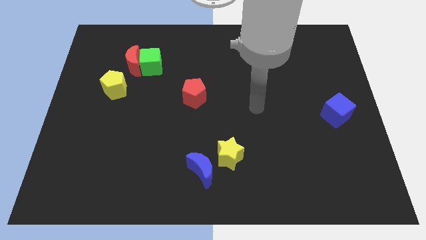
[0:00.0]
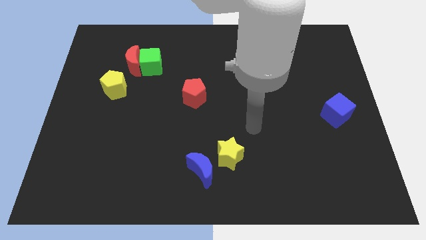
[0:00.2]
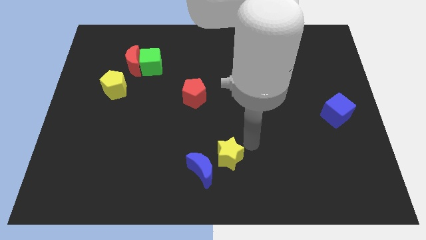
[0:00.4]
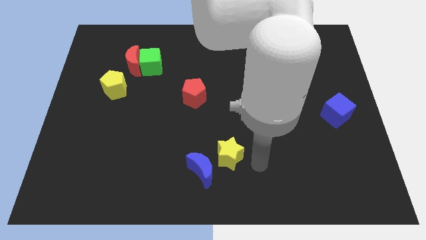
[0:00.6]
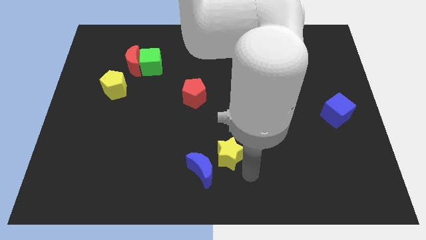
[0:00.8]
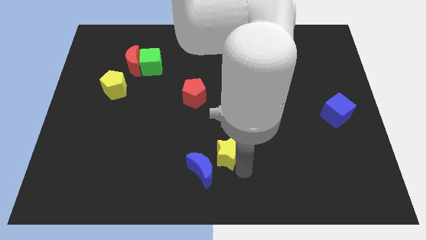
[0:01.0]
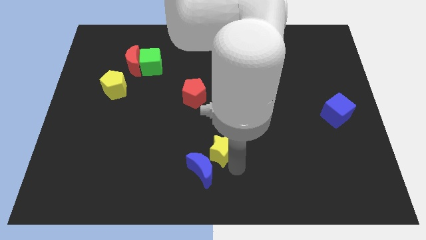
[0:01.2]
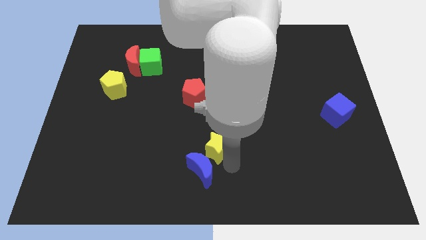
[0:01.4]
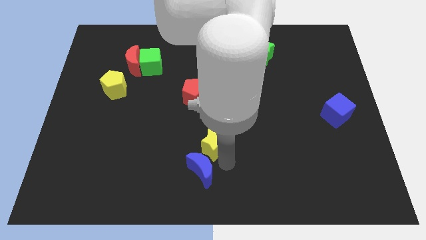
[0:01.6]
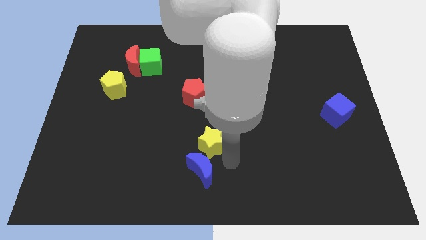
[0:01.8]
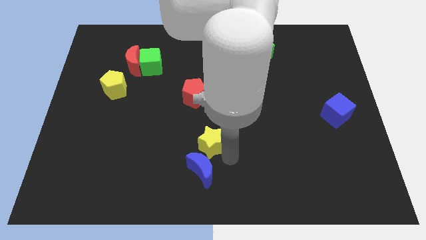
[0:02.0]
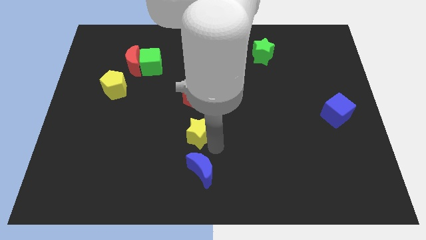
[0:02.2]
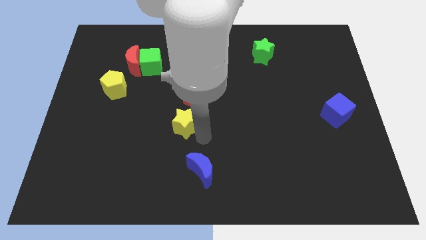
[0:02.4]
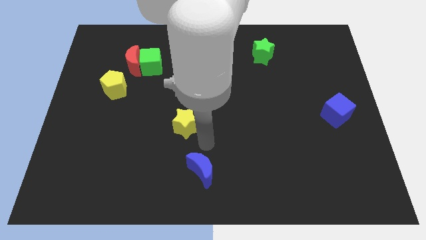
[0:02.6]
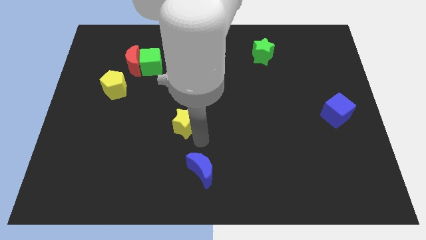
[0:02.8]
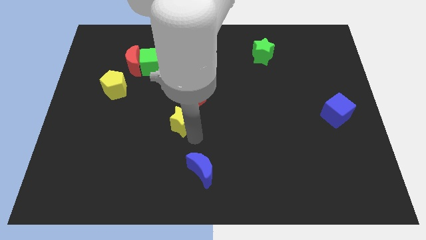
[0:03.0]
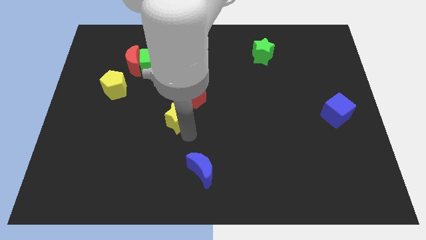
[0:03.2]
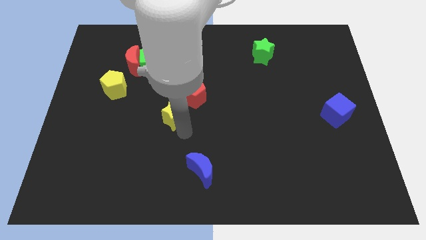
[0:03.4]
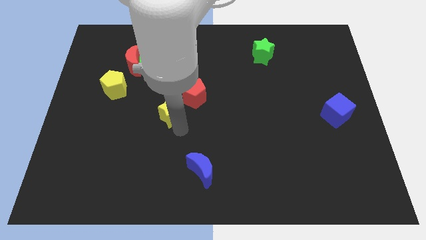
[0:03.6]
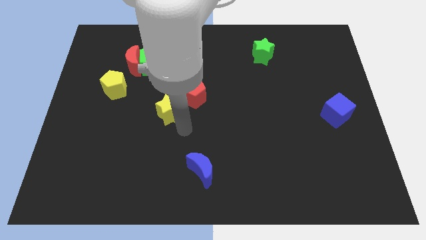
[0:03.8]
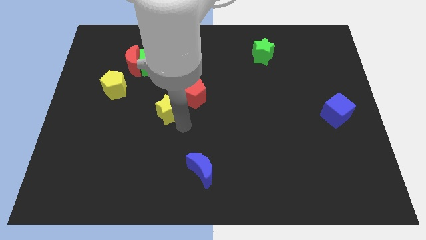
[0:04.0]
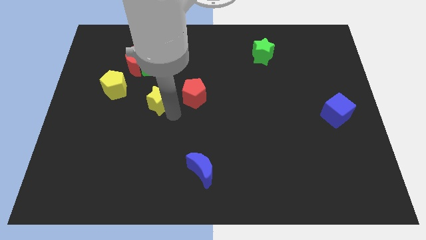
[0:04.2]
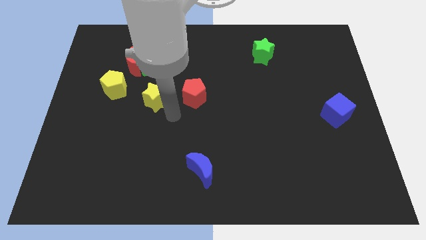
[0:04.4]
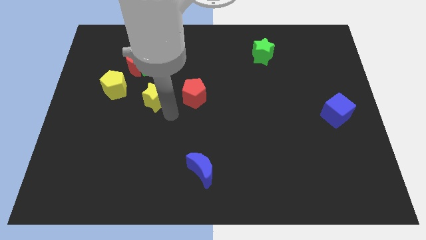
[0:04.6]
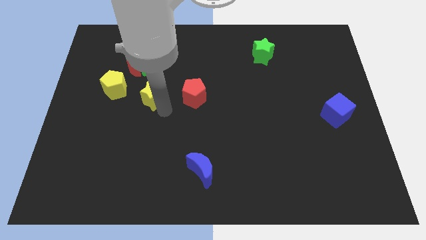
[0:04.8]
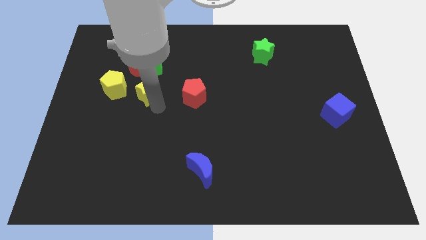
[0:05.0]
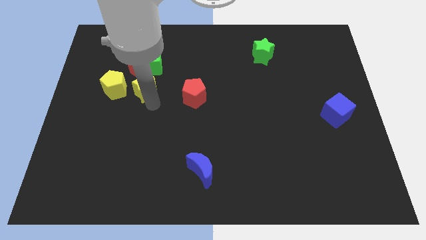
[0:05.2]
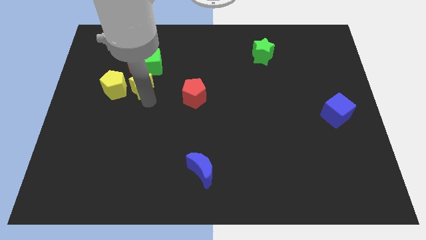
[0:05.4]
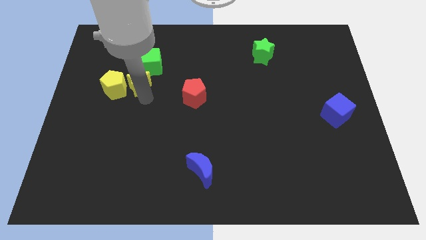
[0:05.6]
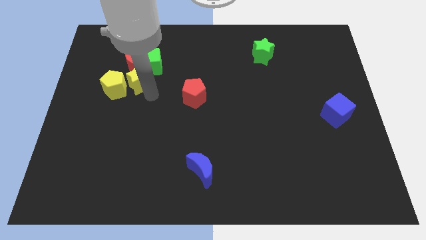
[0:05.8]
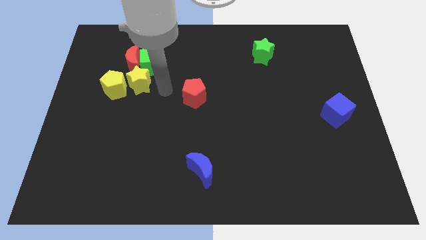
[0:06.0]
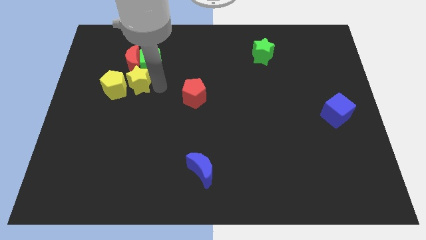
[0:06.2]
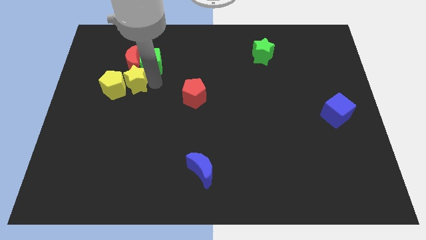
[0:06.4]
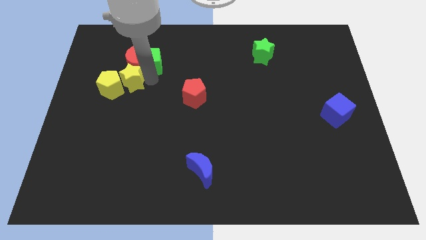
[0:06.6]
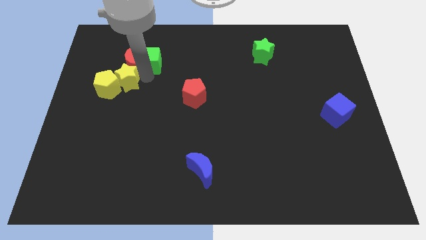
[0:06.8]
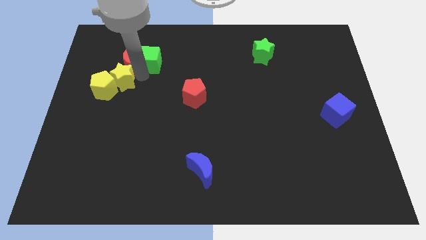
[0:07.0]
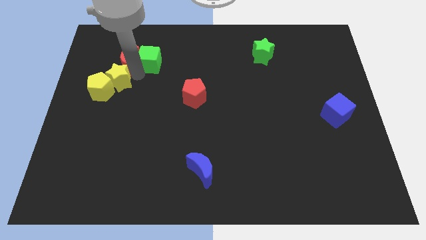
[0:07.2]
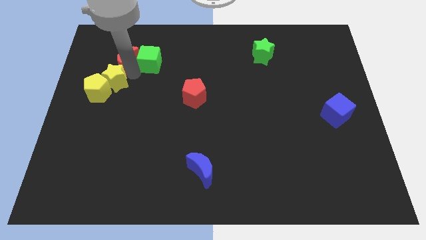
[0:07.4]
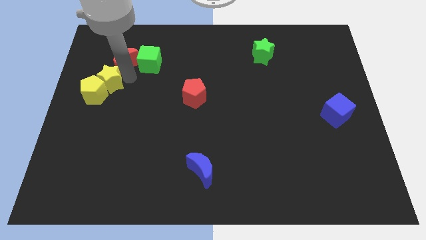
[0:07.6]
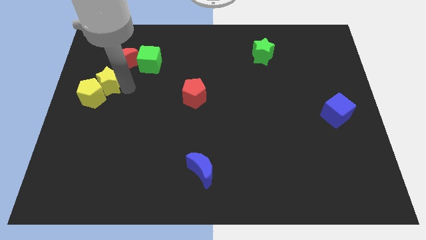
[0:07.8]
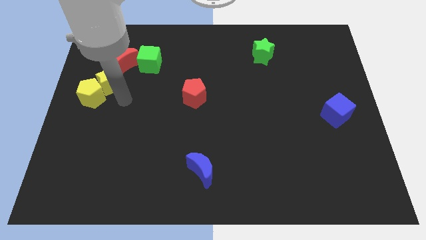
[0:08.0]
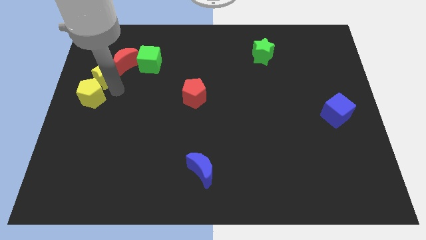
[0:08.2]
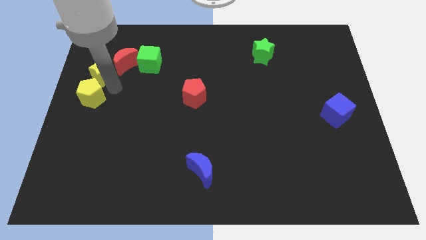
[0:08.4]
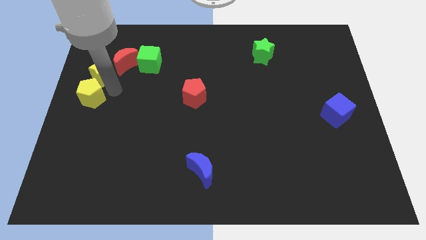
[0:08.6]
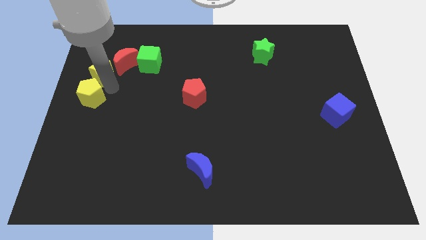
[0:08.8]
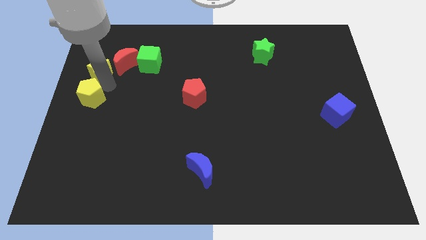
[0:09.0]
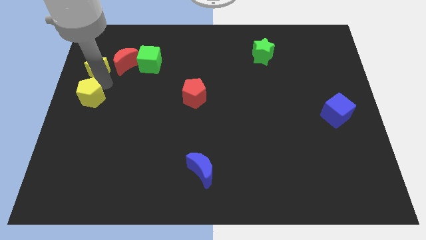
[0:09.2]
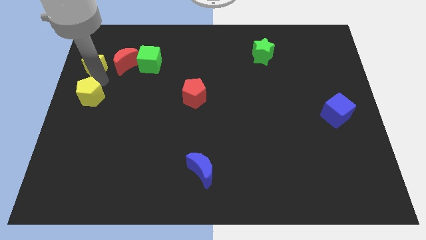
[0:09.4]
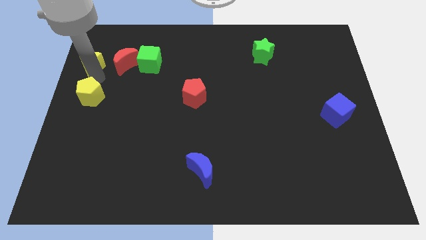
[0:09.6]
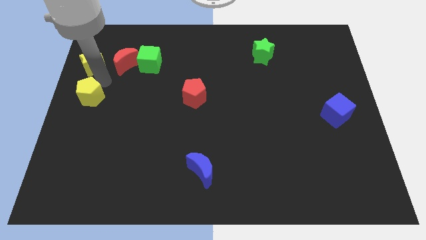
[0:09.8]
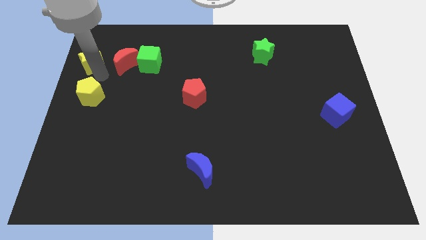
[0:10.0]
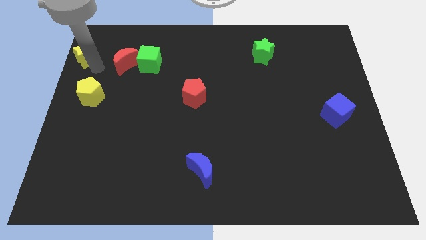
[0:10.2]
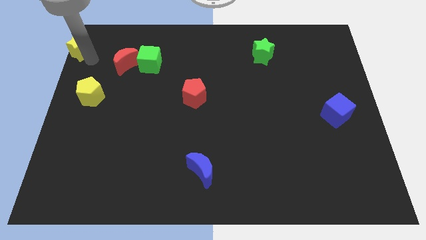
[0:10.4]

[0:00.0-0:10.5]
put the yellow star to the top left

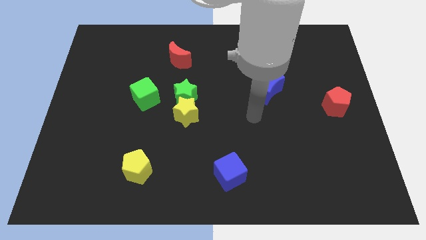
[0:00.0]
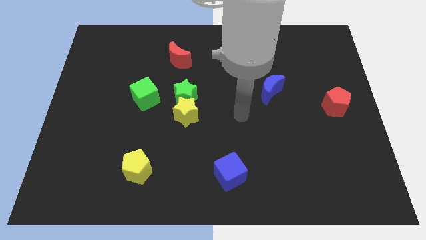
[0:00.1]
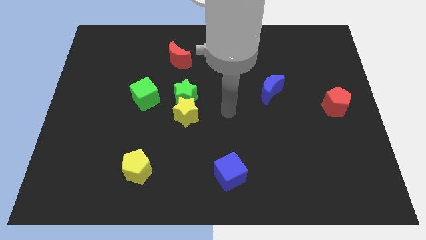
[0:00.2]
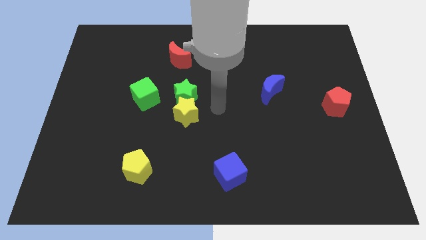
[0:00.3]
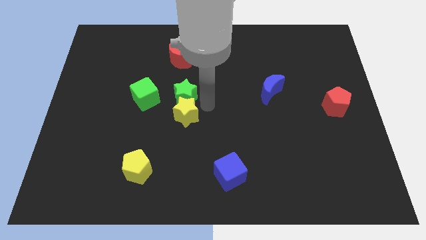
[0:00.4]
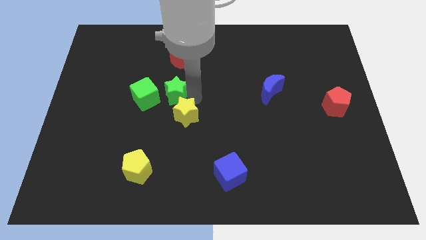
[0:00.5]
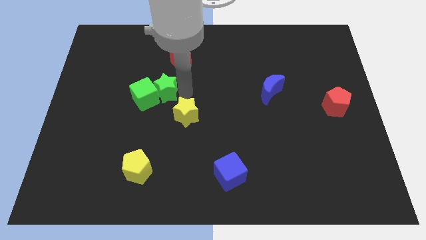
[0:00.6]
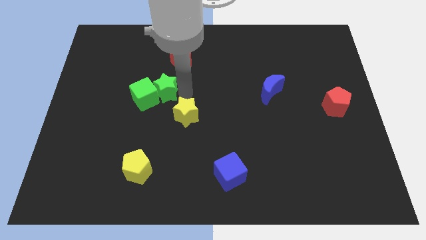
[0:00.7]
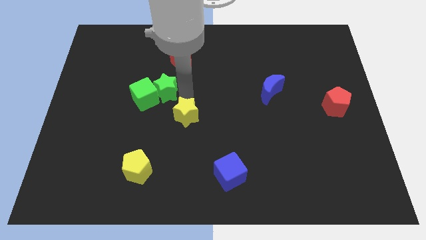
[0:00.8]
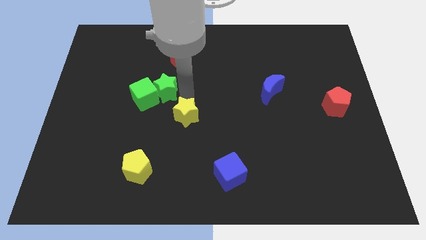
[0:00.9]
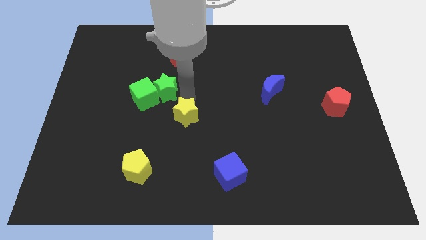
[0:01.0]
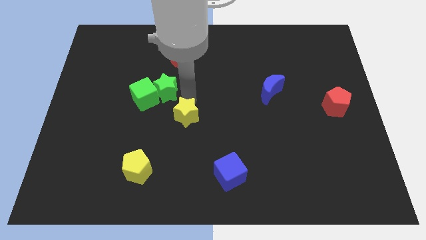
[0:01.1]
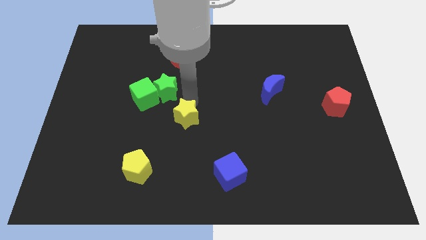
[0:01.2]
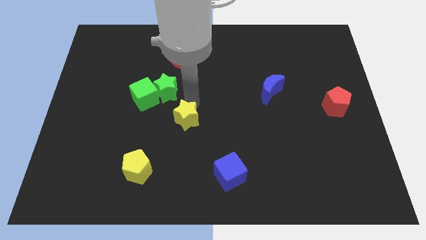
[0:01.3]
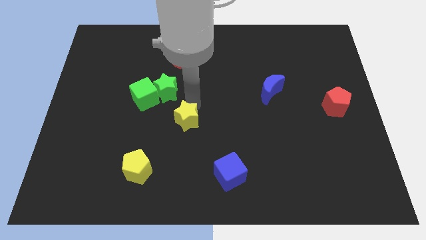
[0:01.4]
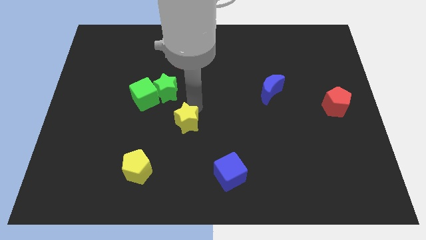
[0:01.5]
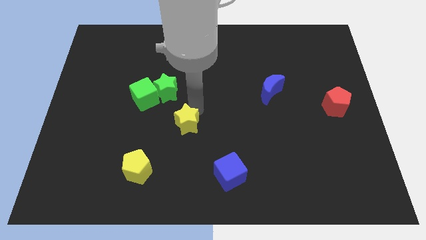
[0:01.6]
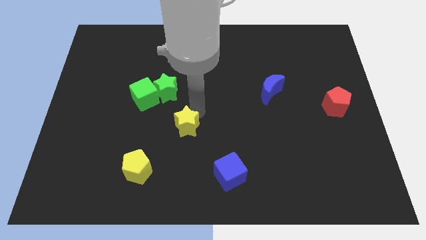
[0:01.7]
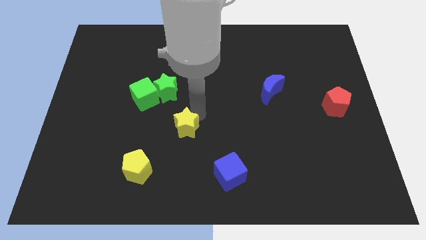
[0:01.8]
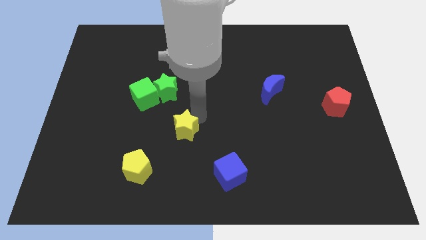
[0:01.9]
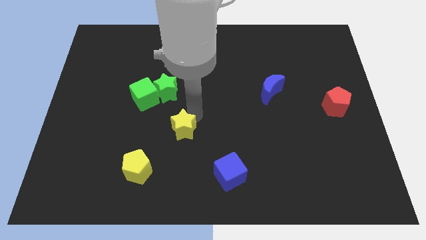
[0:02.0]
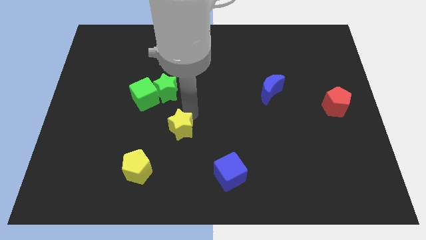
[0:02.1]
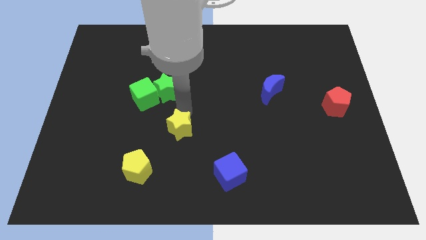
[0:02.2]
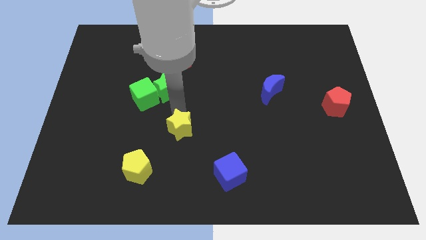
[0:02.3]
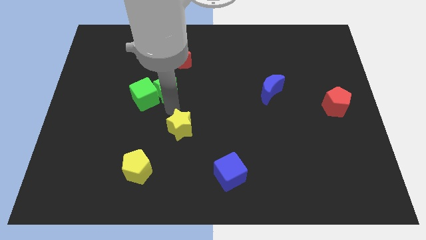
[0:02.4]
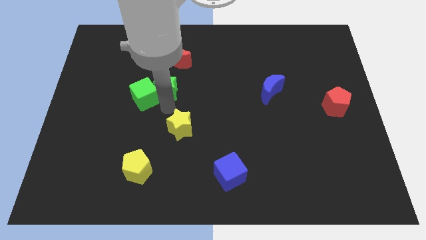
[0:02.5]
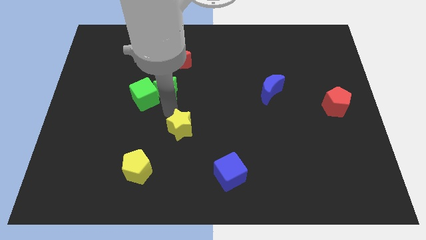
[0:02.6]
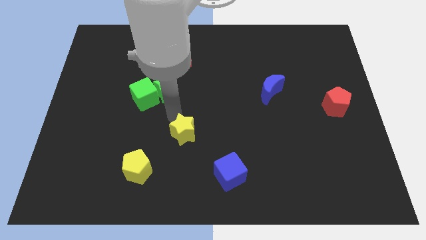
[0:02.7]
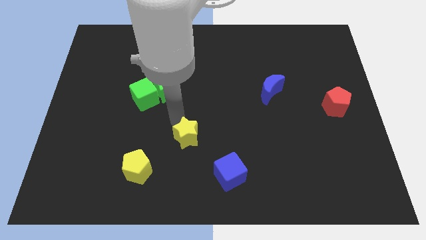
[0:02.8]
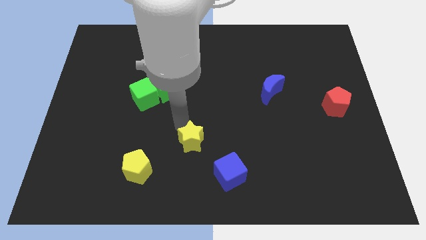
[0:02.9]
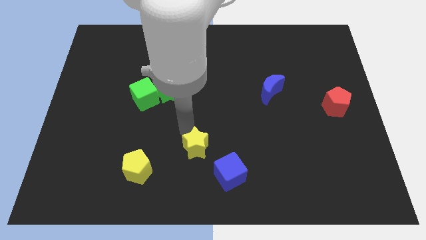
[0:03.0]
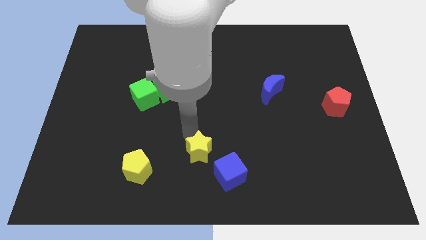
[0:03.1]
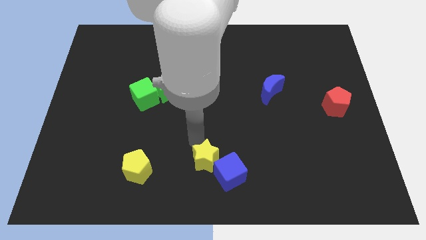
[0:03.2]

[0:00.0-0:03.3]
slide the yellow star to the bottom side
